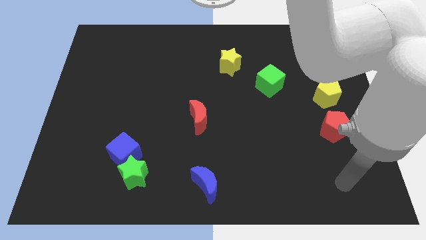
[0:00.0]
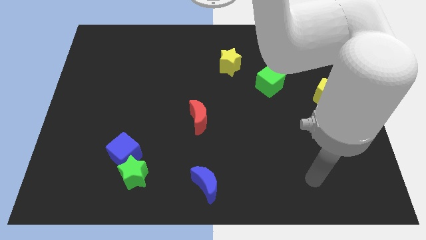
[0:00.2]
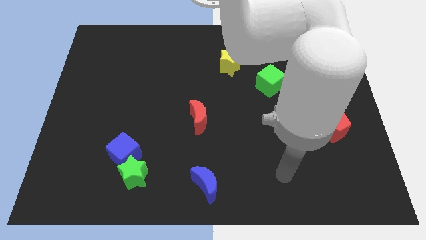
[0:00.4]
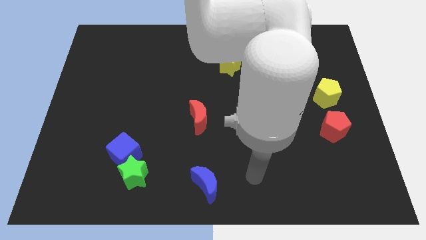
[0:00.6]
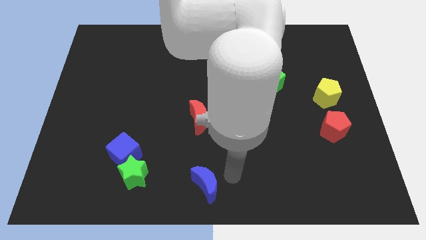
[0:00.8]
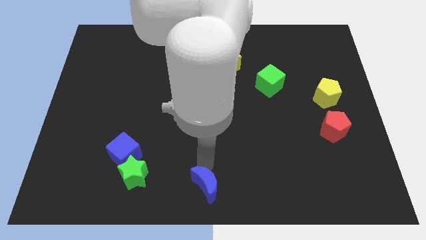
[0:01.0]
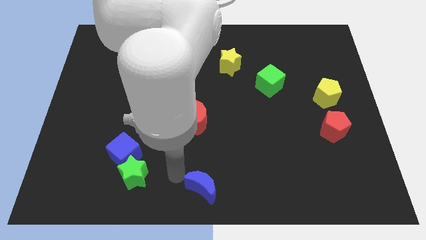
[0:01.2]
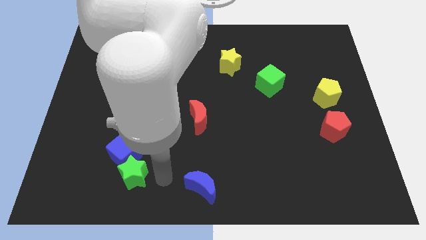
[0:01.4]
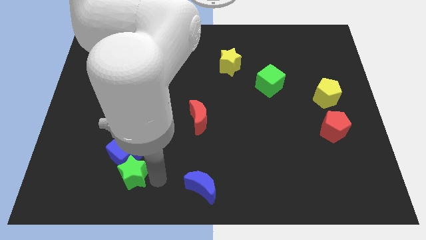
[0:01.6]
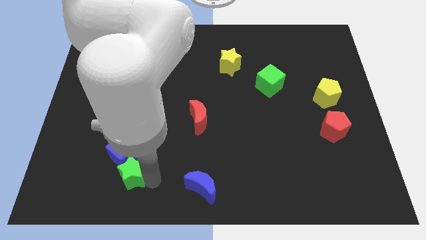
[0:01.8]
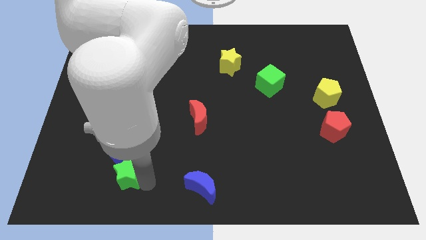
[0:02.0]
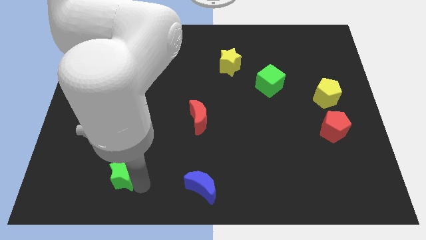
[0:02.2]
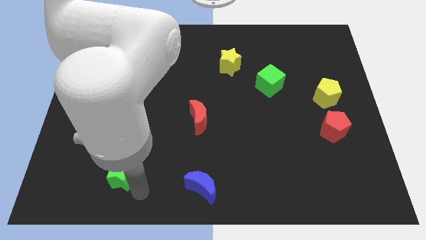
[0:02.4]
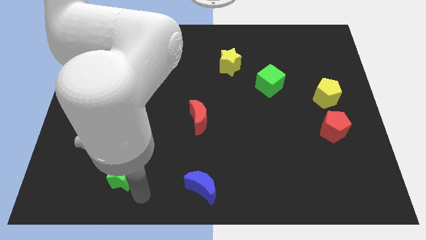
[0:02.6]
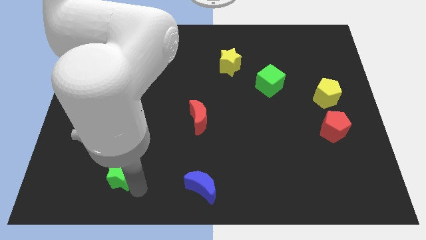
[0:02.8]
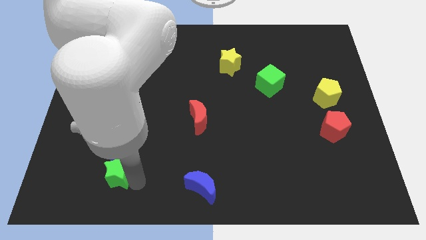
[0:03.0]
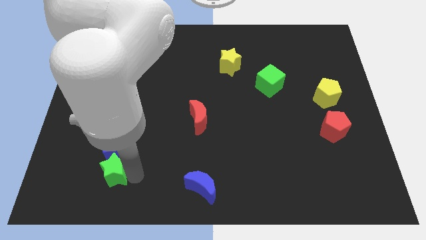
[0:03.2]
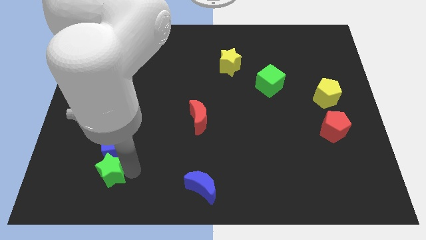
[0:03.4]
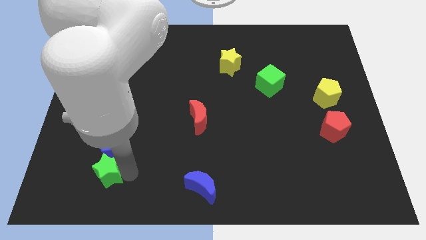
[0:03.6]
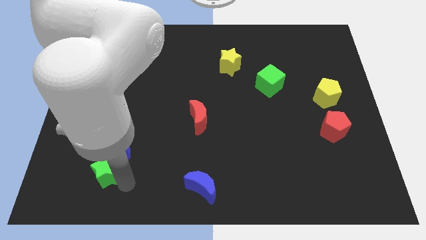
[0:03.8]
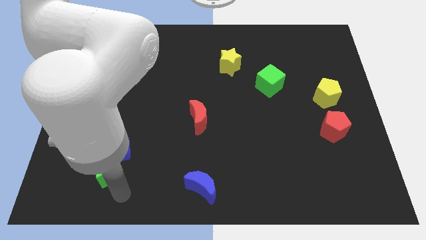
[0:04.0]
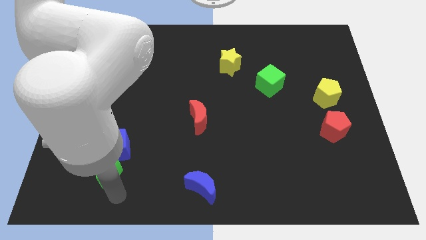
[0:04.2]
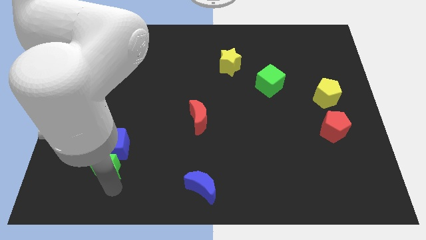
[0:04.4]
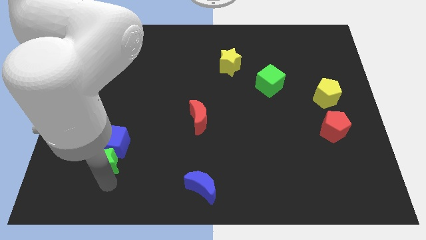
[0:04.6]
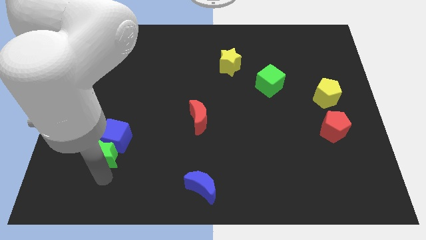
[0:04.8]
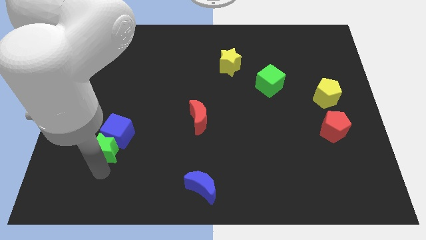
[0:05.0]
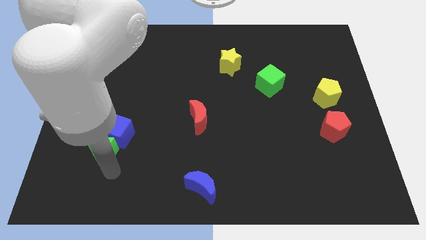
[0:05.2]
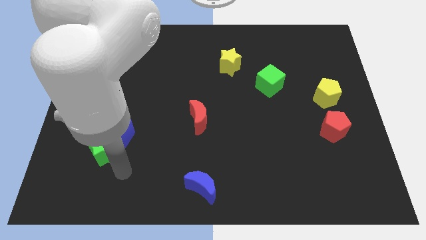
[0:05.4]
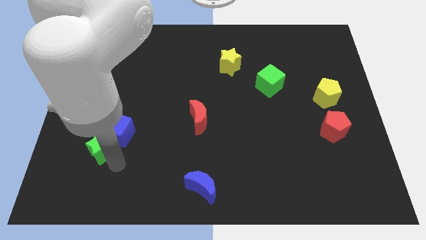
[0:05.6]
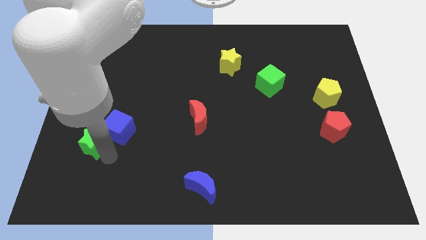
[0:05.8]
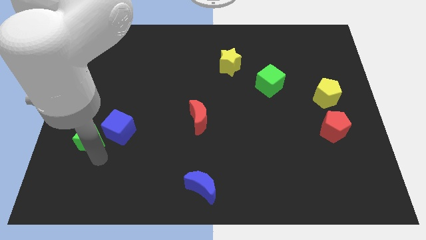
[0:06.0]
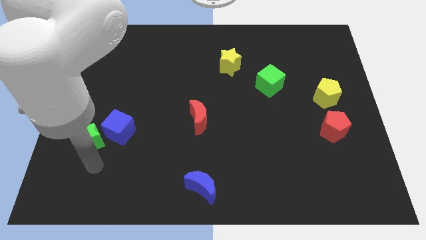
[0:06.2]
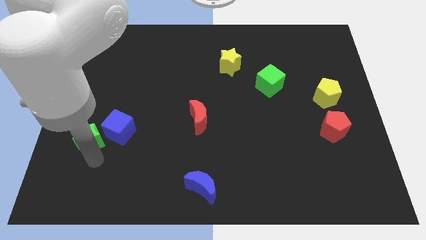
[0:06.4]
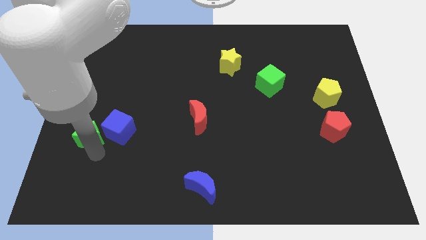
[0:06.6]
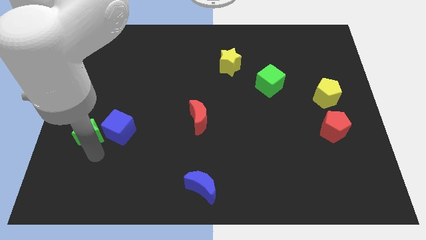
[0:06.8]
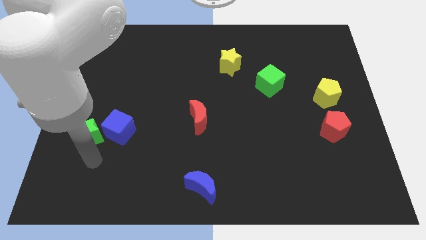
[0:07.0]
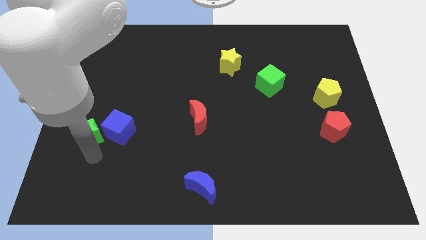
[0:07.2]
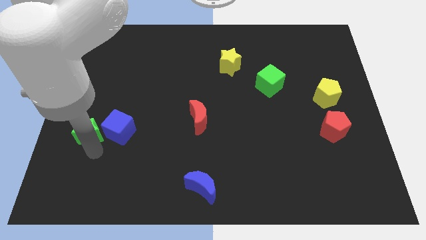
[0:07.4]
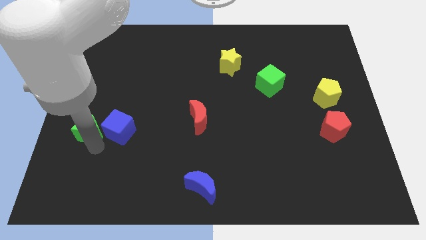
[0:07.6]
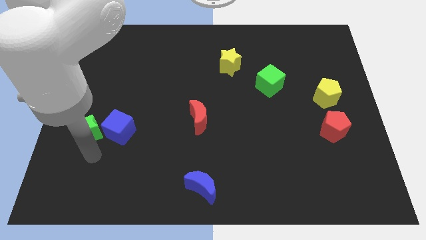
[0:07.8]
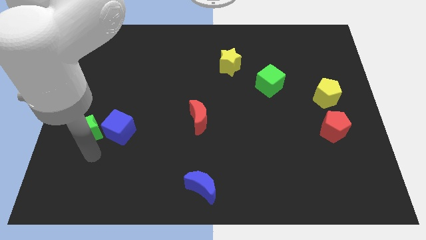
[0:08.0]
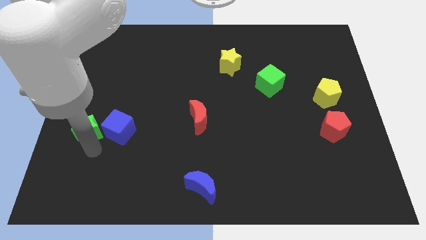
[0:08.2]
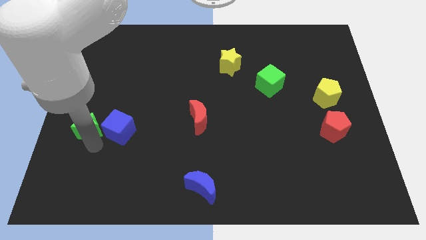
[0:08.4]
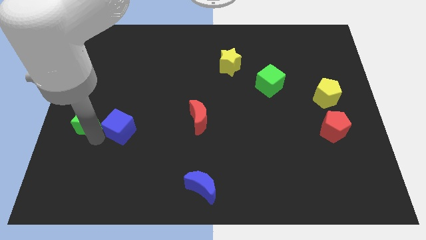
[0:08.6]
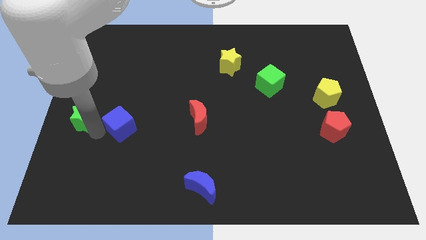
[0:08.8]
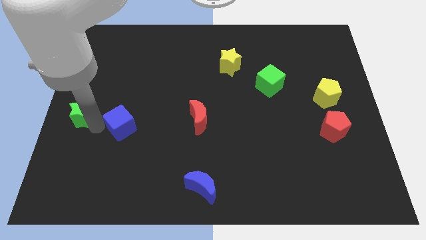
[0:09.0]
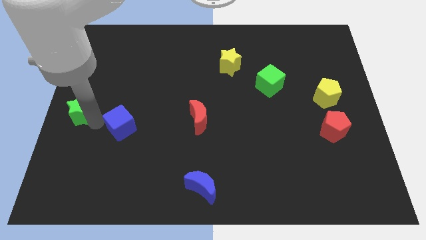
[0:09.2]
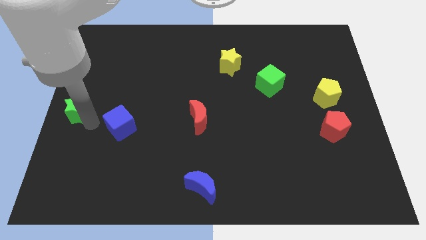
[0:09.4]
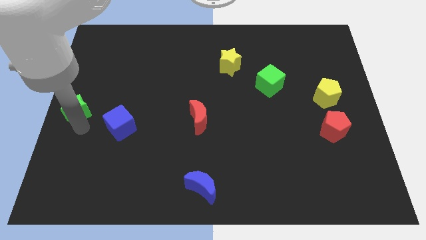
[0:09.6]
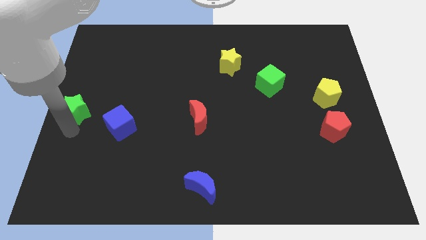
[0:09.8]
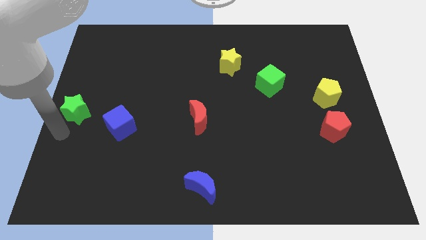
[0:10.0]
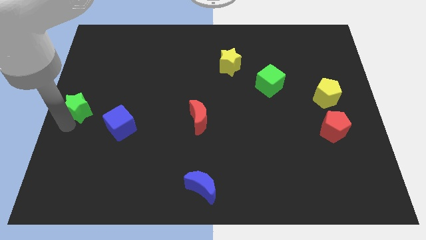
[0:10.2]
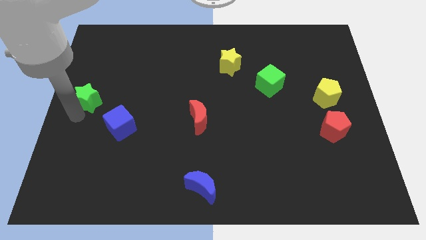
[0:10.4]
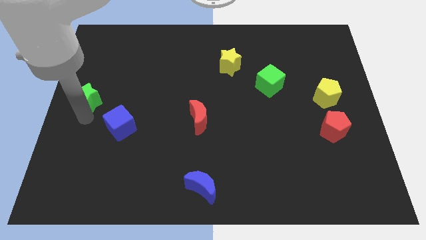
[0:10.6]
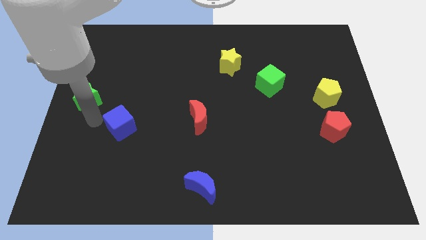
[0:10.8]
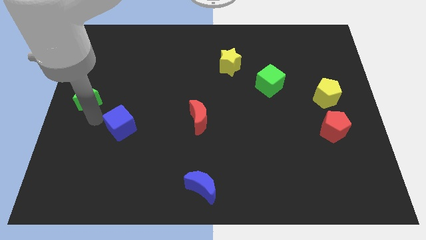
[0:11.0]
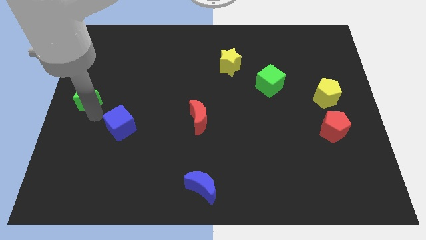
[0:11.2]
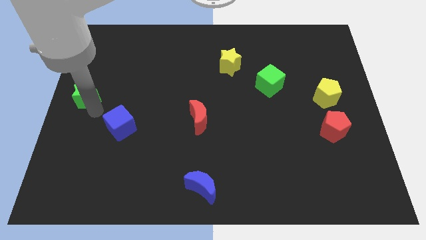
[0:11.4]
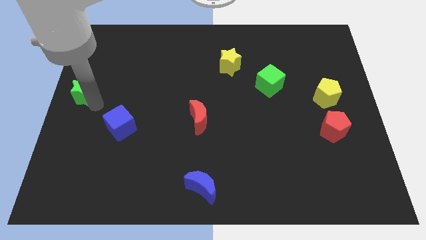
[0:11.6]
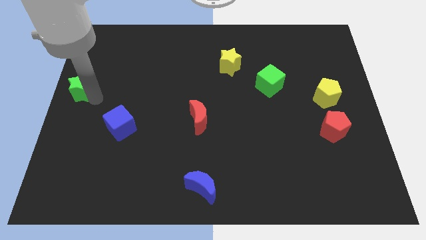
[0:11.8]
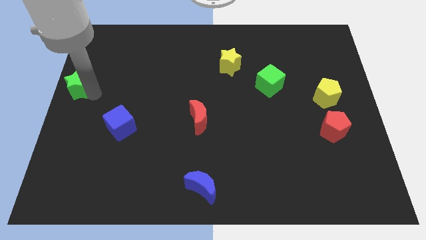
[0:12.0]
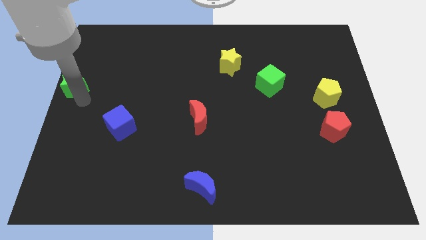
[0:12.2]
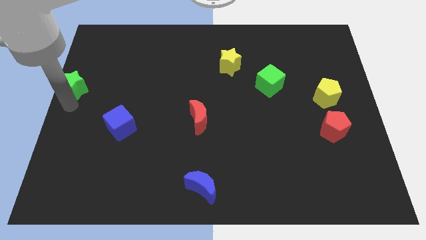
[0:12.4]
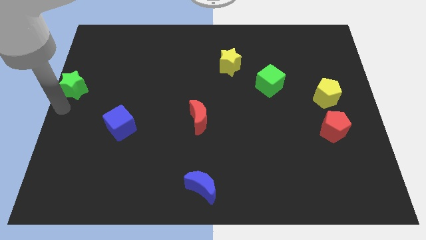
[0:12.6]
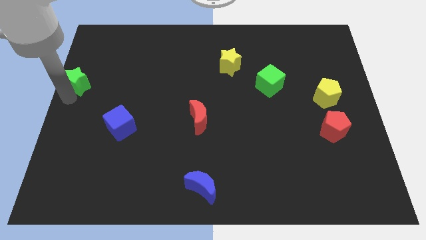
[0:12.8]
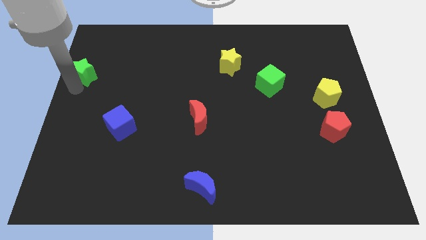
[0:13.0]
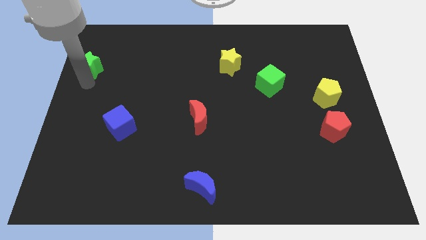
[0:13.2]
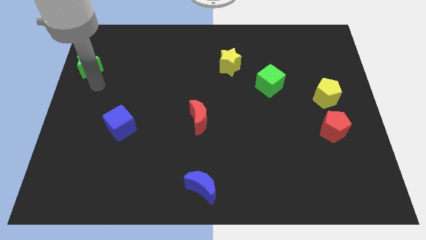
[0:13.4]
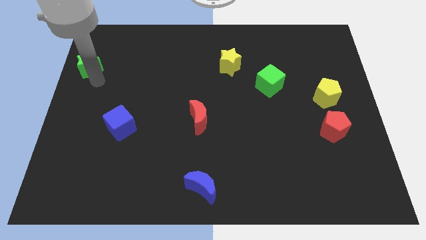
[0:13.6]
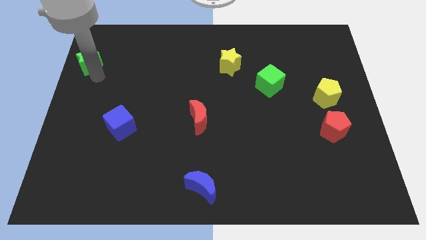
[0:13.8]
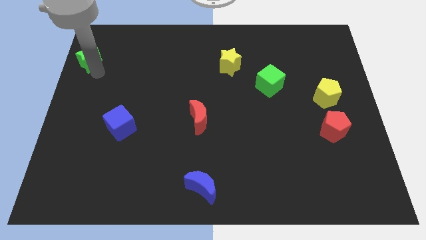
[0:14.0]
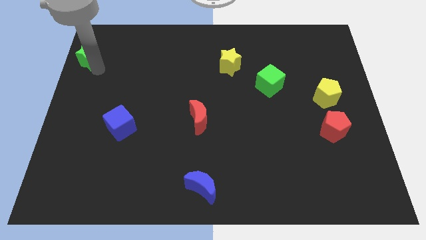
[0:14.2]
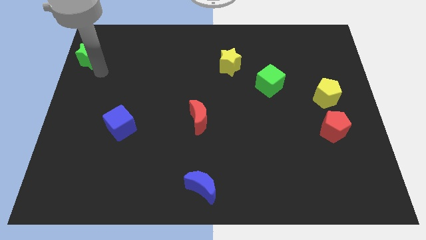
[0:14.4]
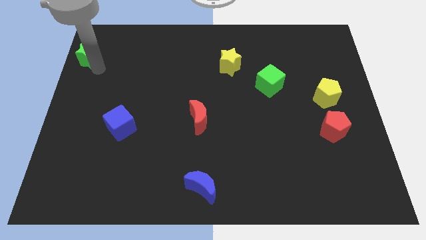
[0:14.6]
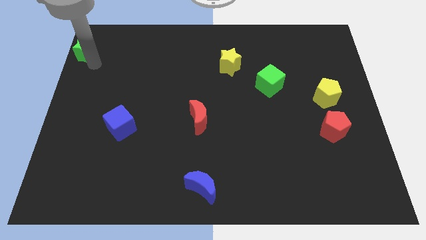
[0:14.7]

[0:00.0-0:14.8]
put the green star to the upper left corner
